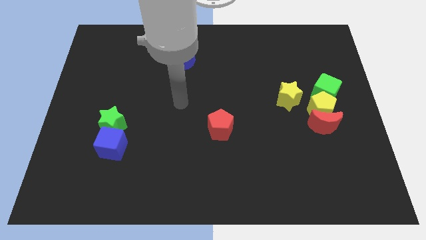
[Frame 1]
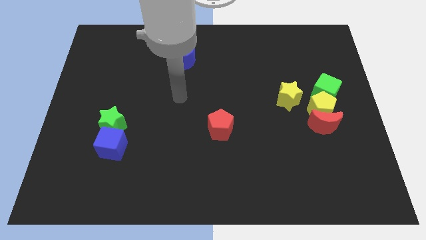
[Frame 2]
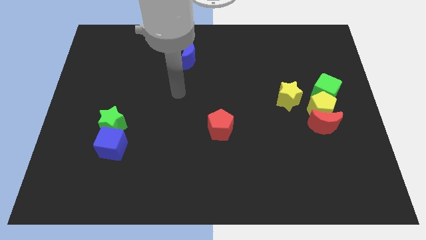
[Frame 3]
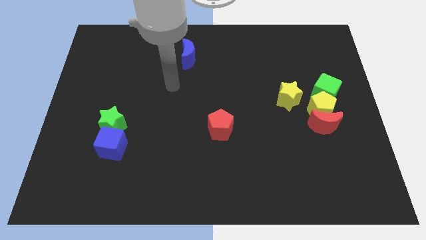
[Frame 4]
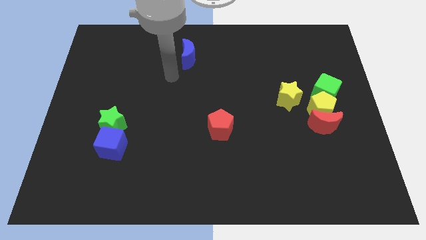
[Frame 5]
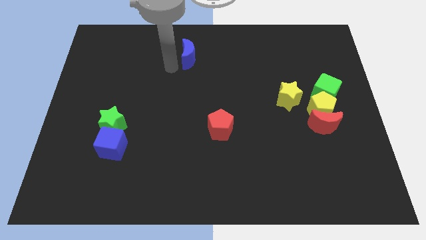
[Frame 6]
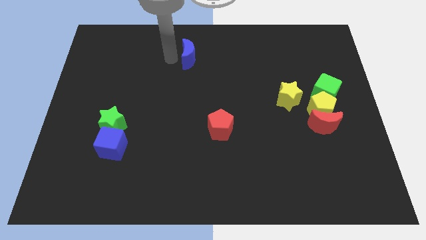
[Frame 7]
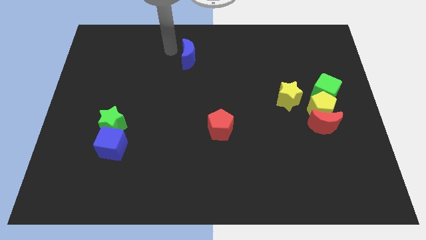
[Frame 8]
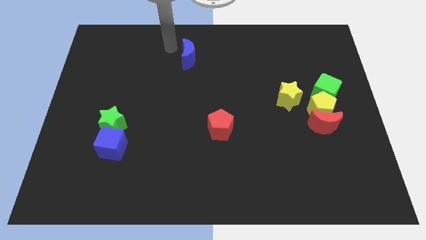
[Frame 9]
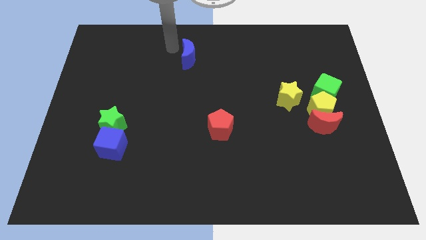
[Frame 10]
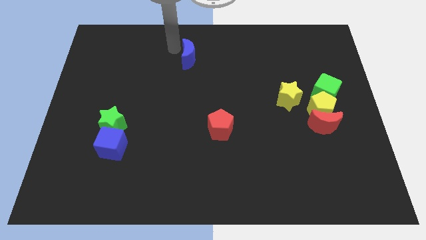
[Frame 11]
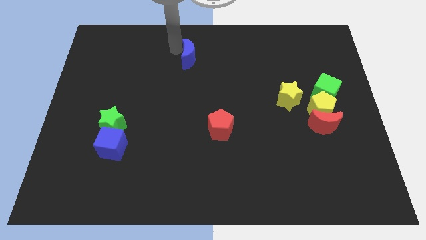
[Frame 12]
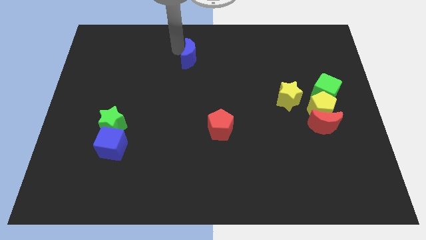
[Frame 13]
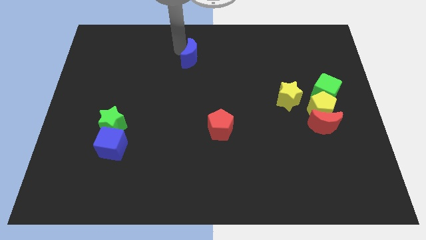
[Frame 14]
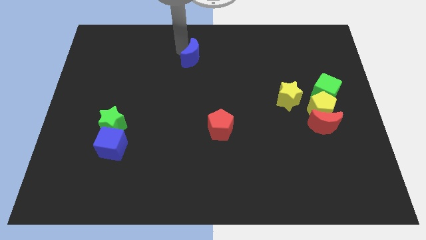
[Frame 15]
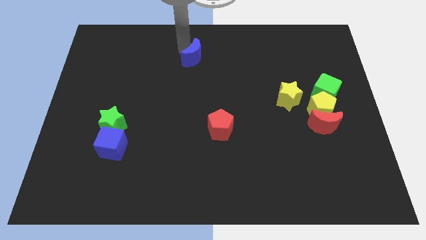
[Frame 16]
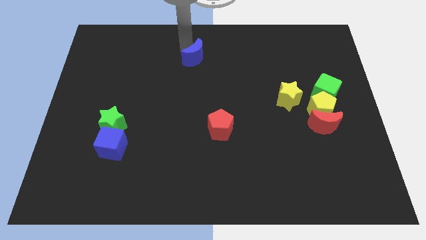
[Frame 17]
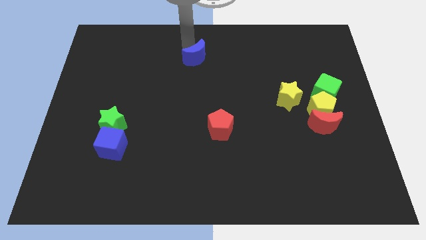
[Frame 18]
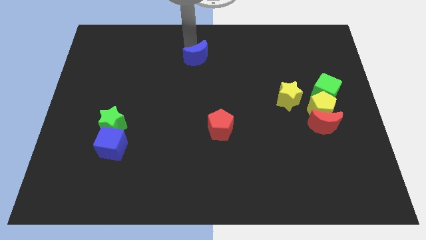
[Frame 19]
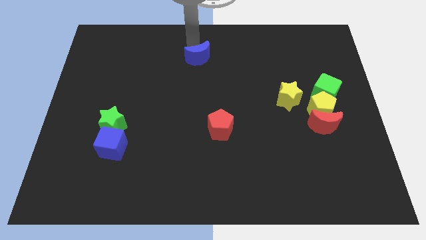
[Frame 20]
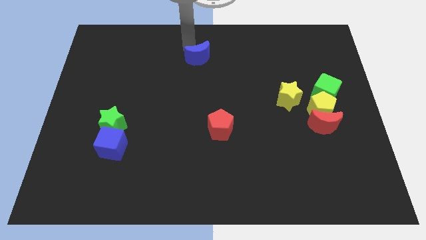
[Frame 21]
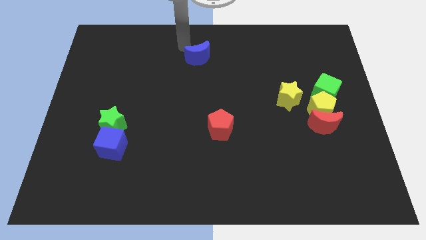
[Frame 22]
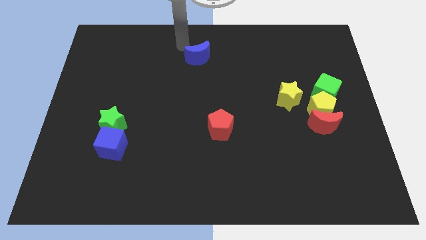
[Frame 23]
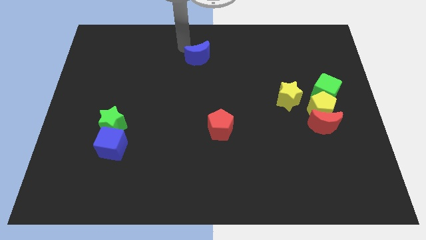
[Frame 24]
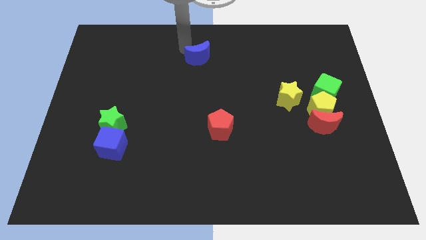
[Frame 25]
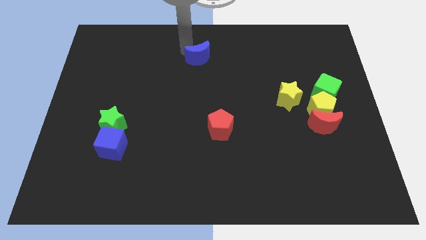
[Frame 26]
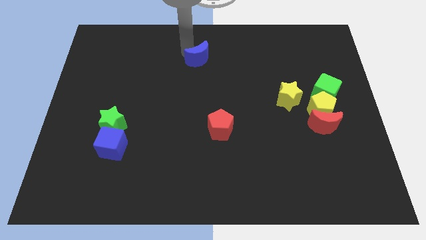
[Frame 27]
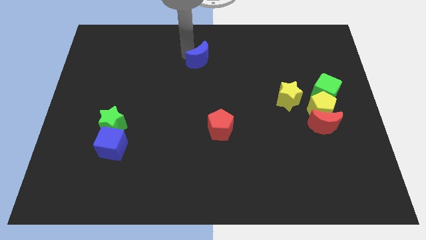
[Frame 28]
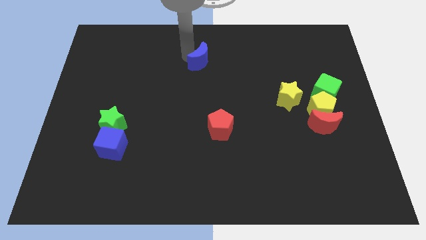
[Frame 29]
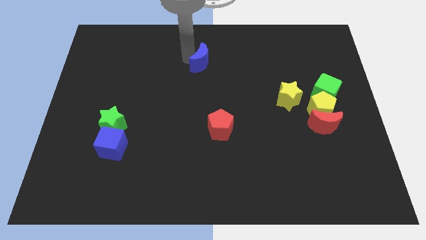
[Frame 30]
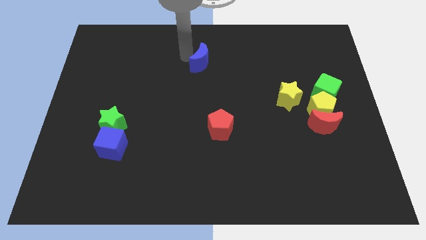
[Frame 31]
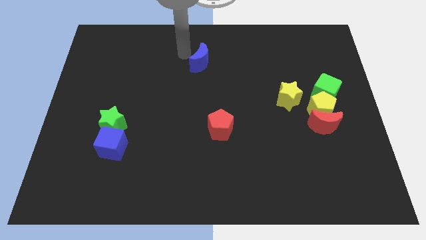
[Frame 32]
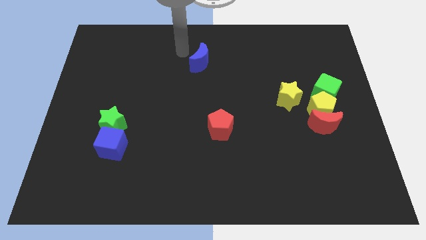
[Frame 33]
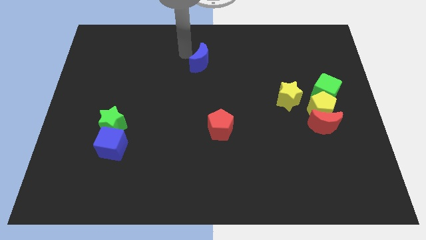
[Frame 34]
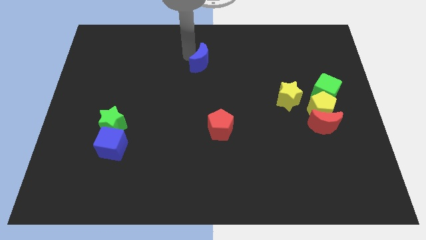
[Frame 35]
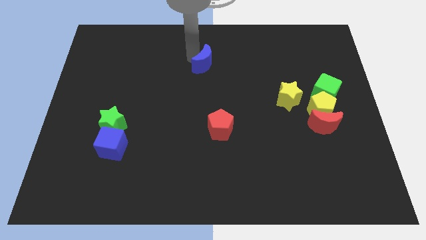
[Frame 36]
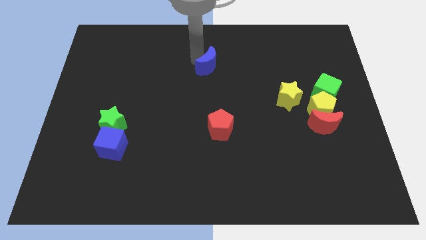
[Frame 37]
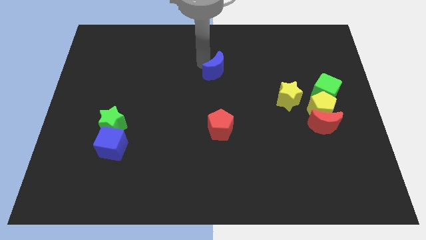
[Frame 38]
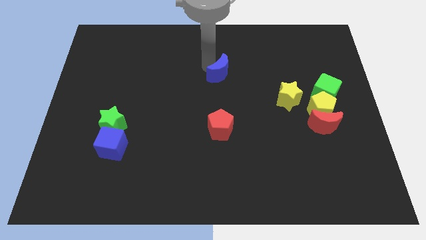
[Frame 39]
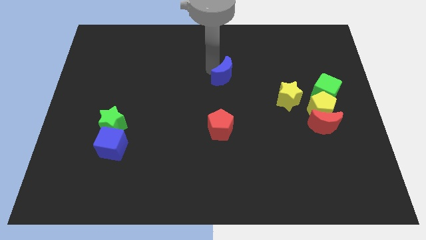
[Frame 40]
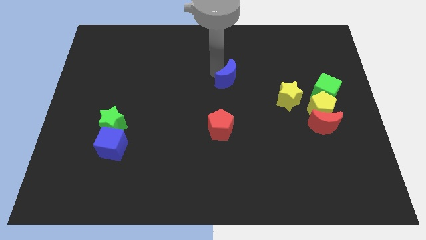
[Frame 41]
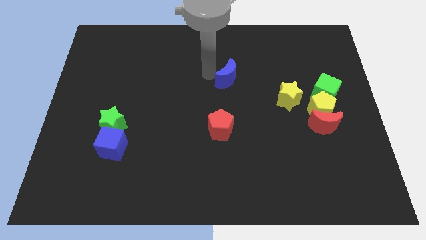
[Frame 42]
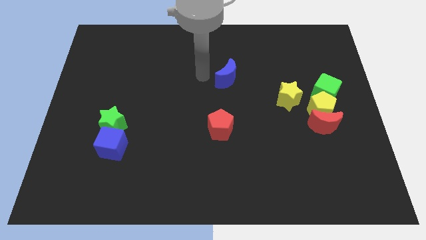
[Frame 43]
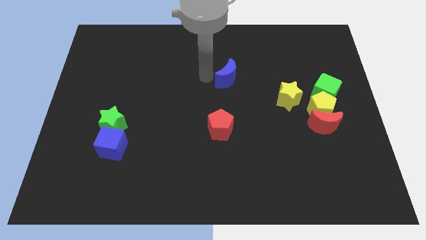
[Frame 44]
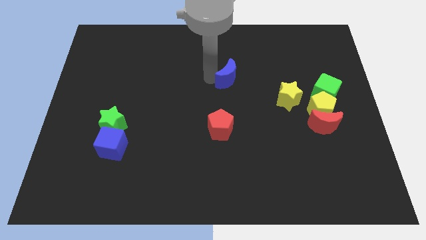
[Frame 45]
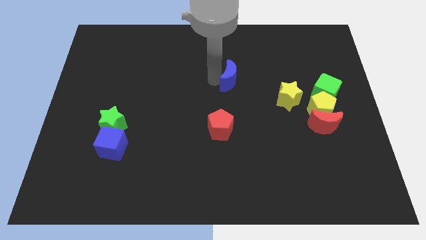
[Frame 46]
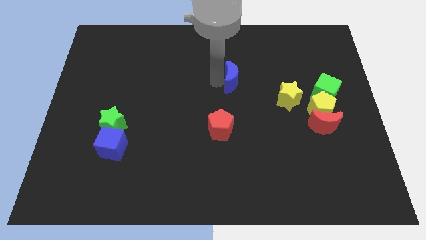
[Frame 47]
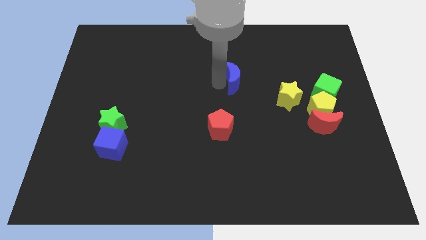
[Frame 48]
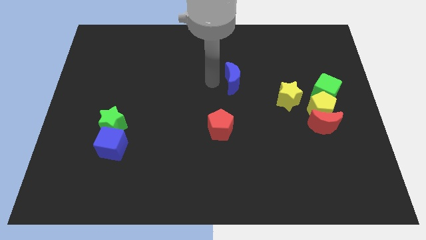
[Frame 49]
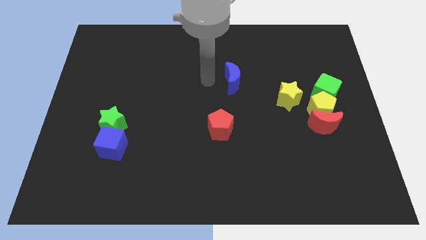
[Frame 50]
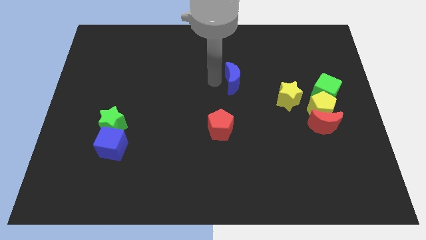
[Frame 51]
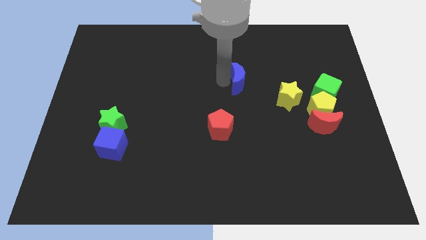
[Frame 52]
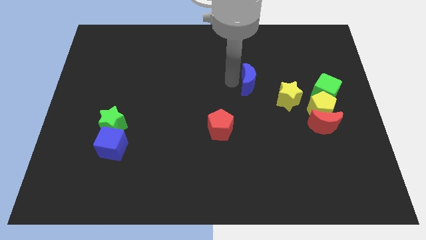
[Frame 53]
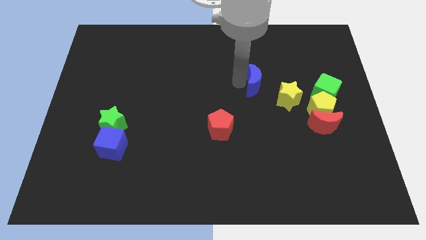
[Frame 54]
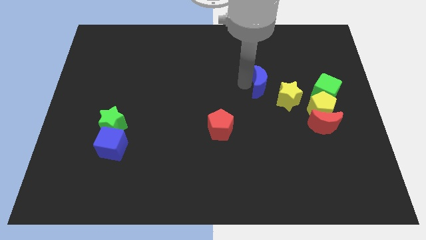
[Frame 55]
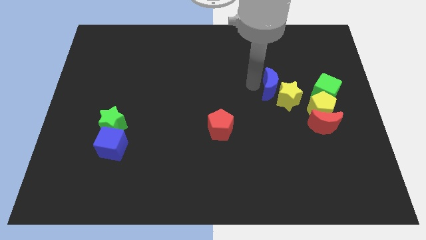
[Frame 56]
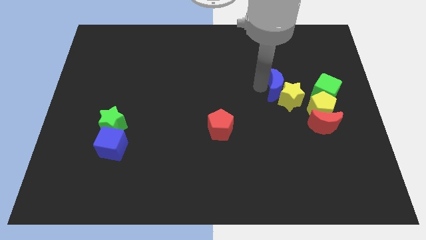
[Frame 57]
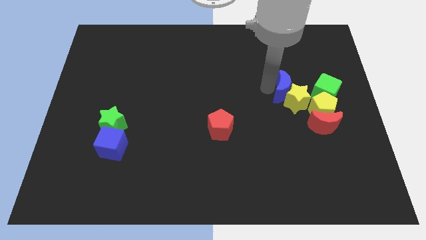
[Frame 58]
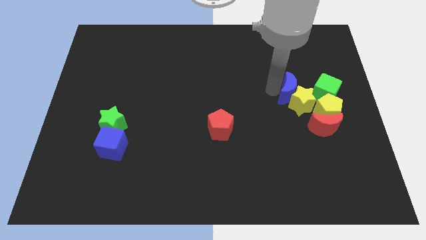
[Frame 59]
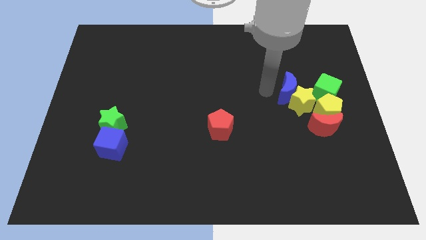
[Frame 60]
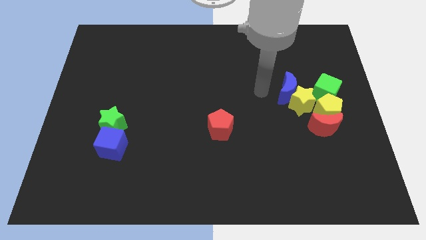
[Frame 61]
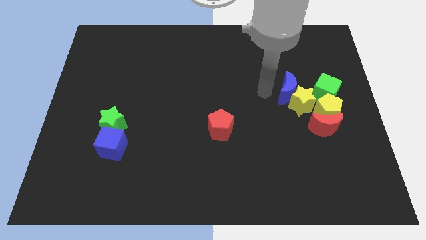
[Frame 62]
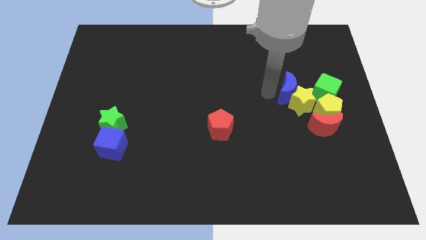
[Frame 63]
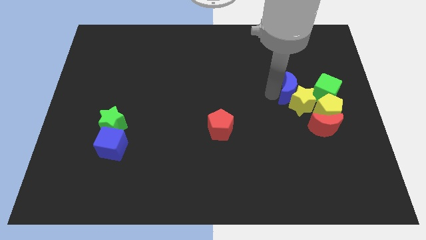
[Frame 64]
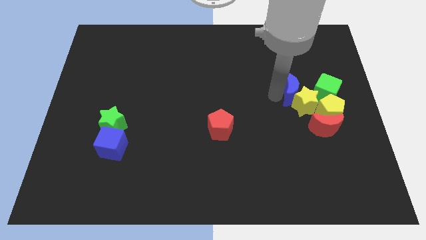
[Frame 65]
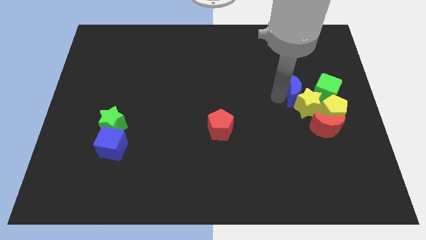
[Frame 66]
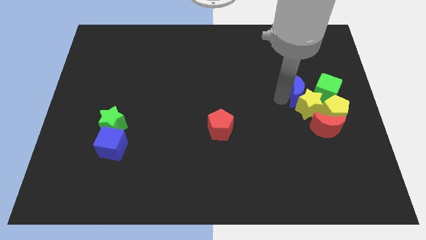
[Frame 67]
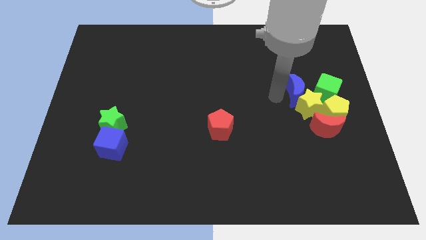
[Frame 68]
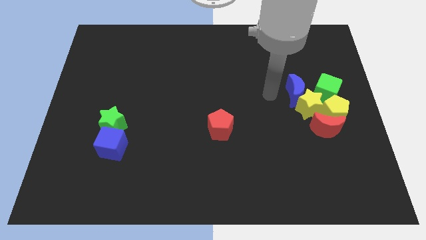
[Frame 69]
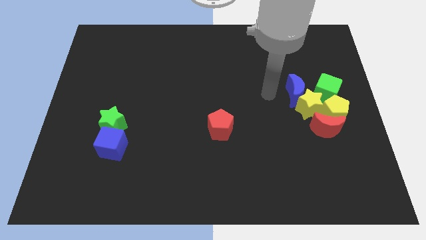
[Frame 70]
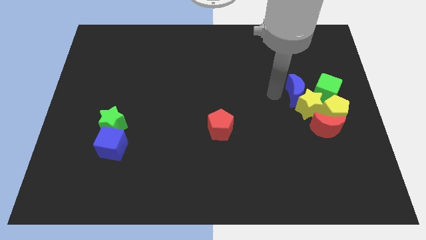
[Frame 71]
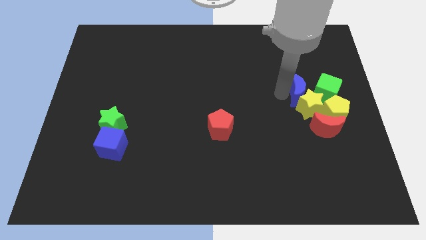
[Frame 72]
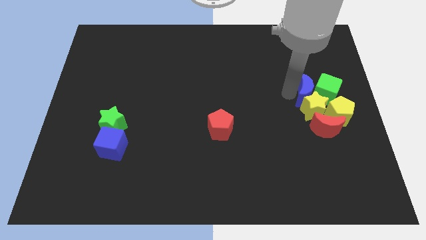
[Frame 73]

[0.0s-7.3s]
push the blue moon next to the green cube

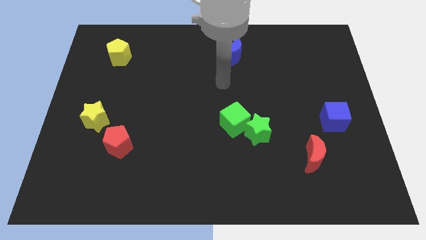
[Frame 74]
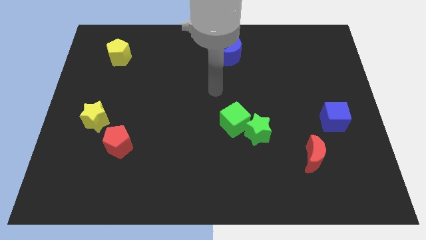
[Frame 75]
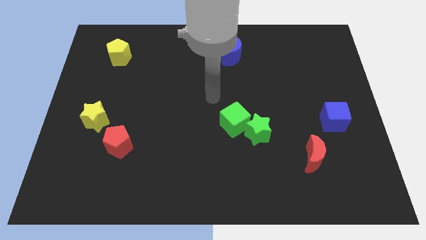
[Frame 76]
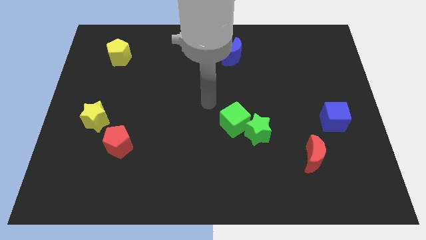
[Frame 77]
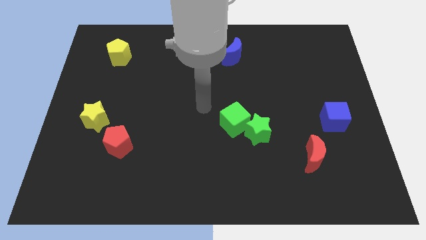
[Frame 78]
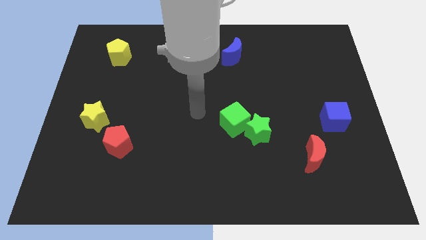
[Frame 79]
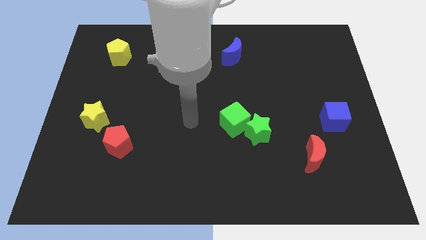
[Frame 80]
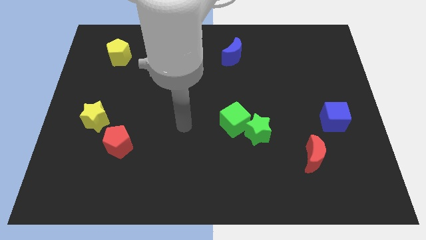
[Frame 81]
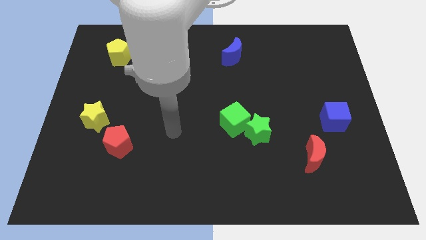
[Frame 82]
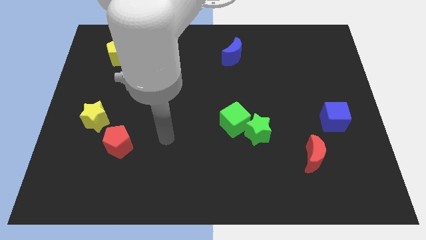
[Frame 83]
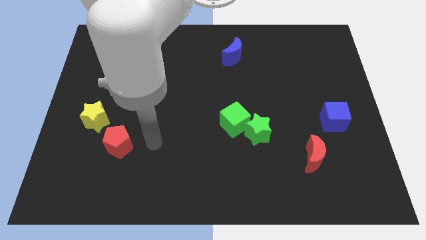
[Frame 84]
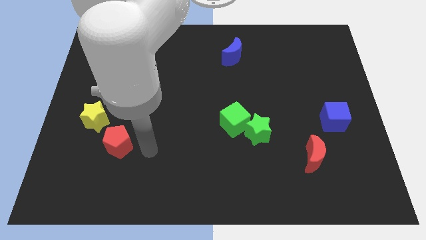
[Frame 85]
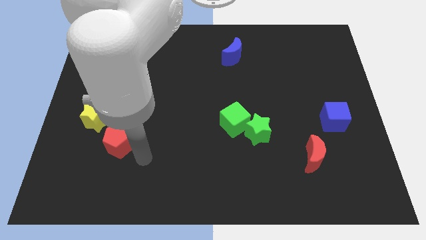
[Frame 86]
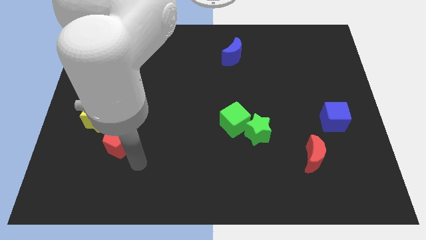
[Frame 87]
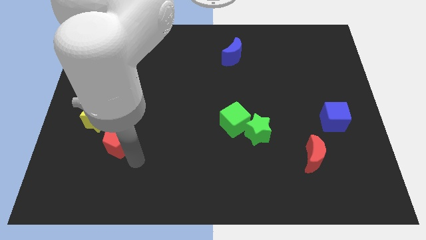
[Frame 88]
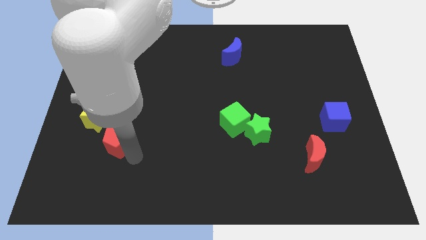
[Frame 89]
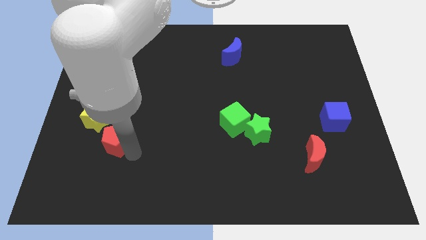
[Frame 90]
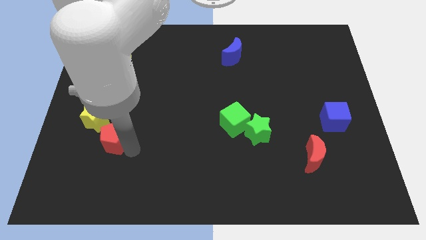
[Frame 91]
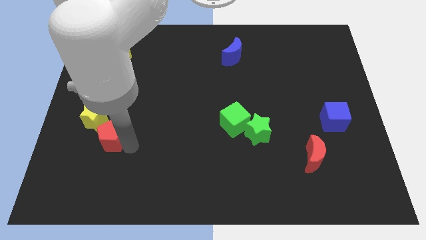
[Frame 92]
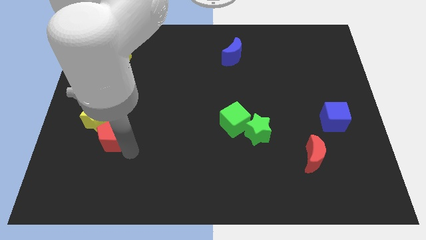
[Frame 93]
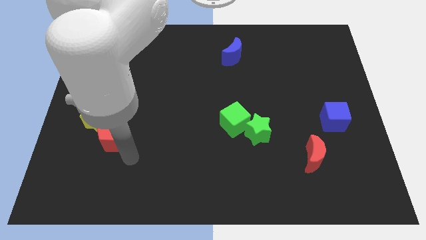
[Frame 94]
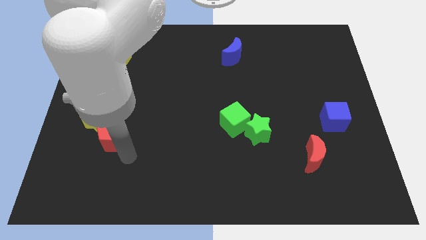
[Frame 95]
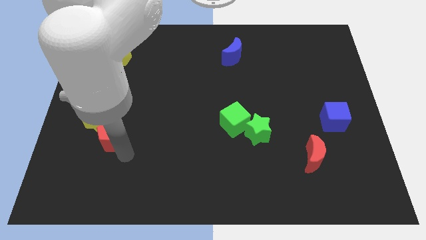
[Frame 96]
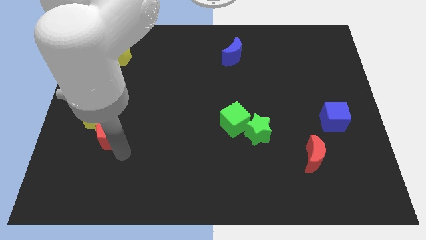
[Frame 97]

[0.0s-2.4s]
move the red pentagon towards the yellow star
